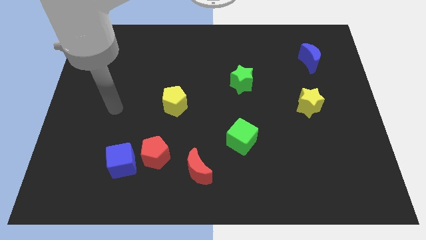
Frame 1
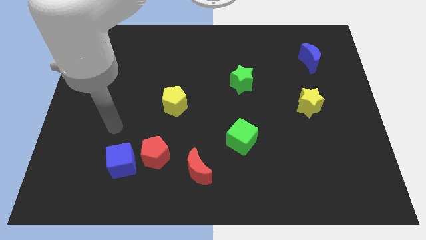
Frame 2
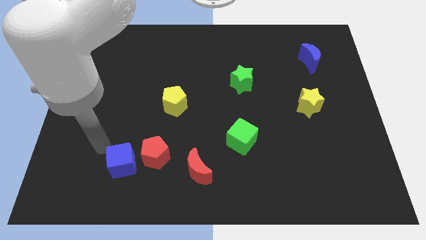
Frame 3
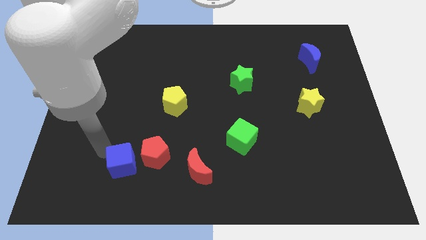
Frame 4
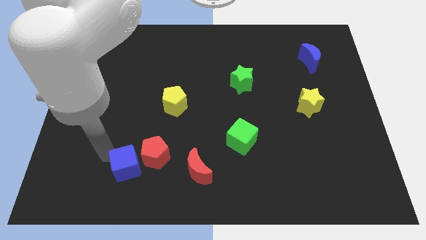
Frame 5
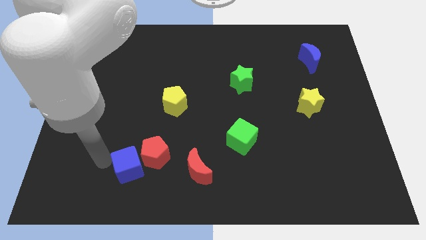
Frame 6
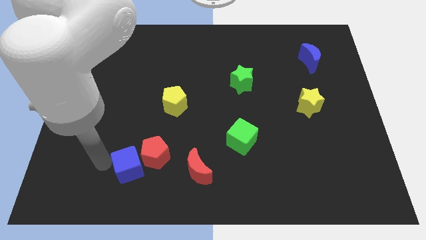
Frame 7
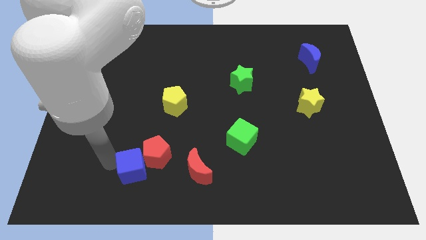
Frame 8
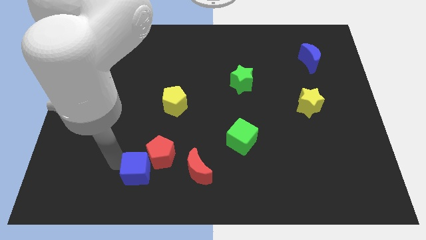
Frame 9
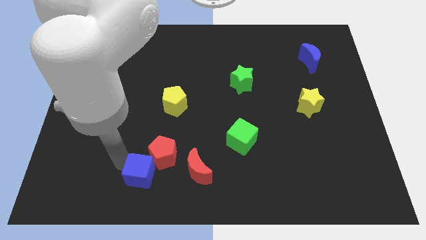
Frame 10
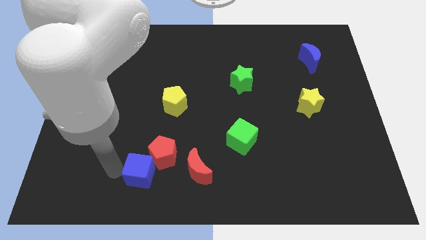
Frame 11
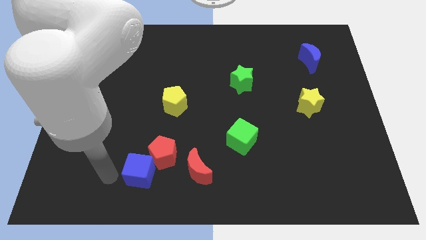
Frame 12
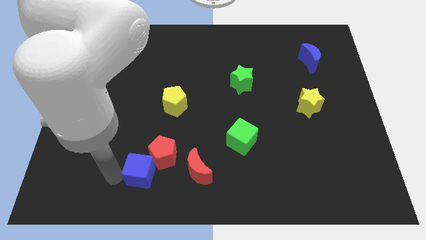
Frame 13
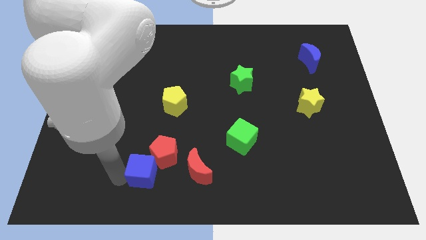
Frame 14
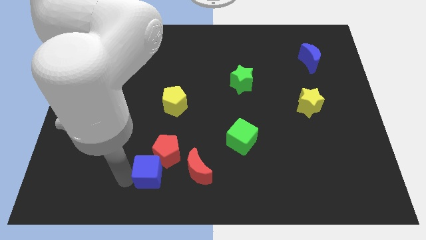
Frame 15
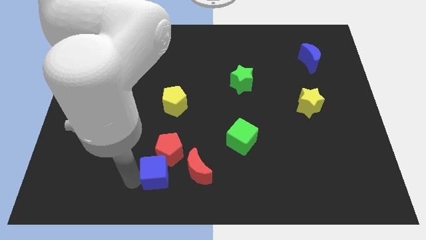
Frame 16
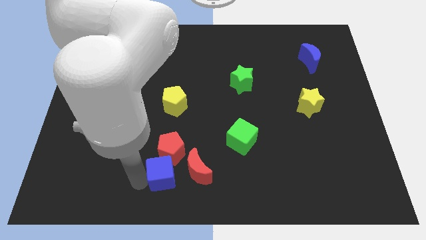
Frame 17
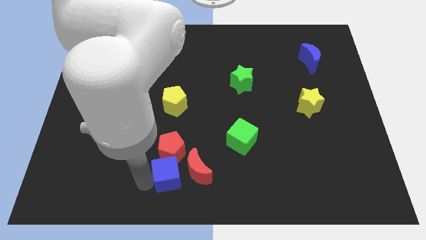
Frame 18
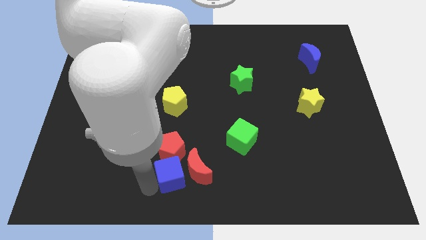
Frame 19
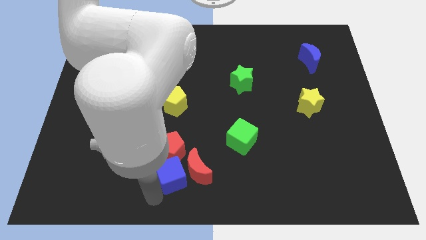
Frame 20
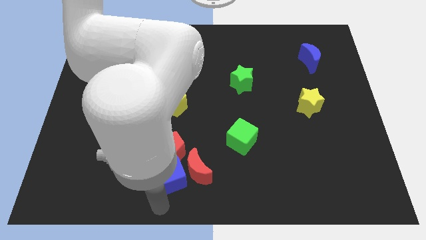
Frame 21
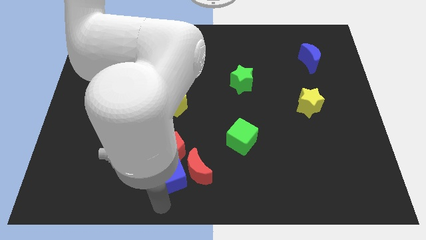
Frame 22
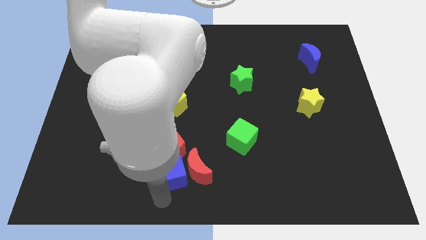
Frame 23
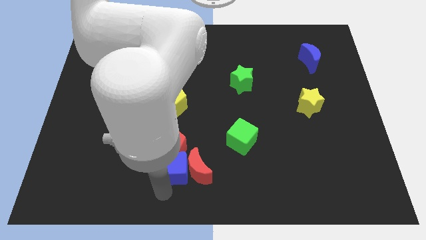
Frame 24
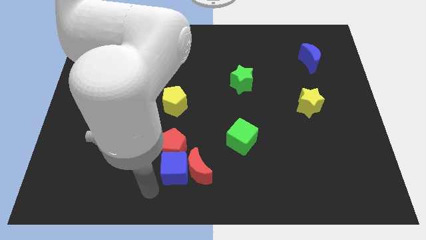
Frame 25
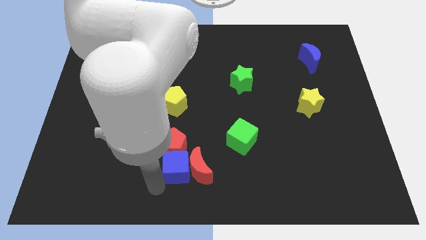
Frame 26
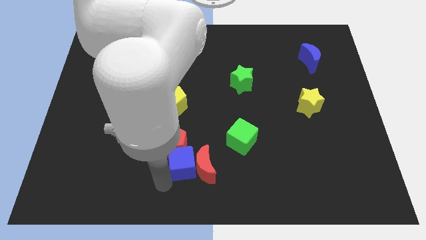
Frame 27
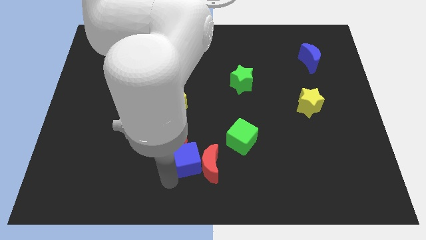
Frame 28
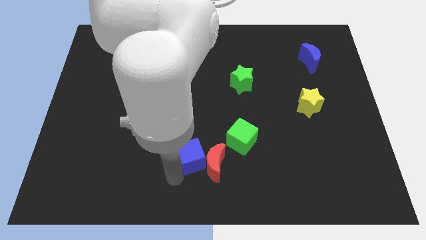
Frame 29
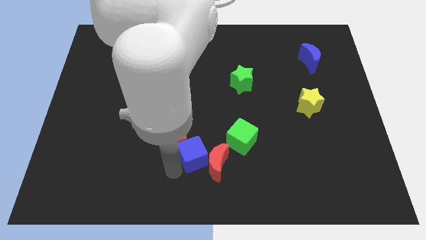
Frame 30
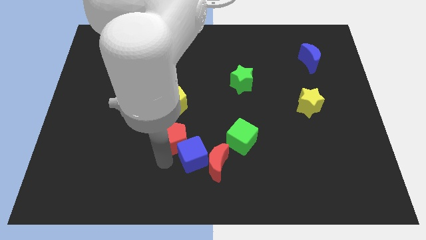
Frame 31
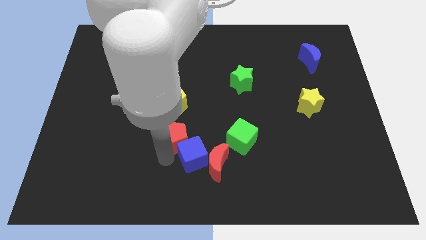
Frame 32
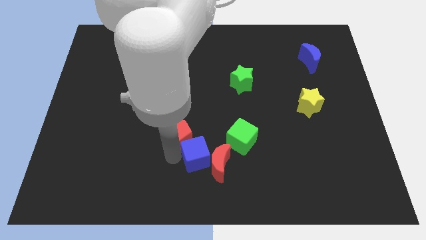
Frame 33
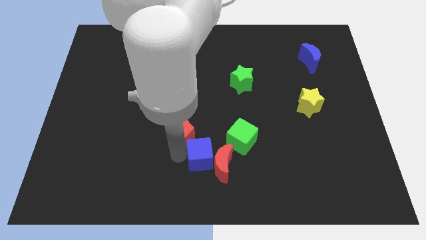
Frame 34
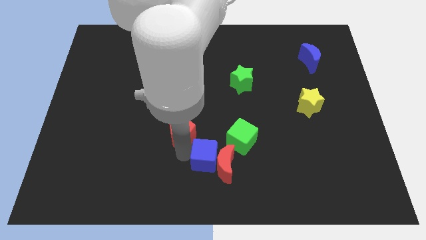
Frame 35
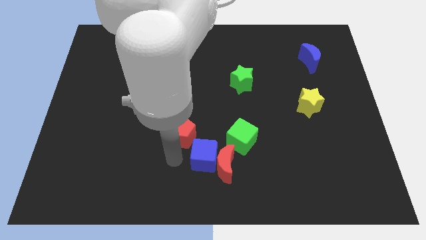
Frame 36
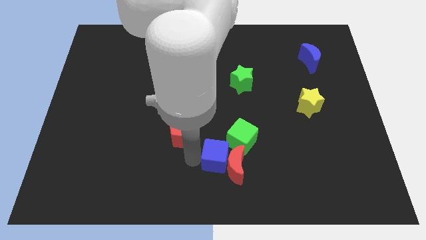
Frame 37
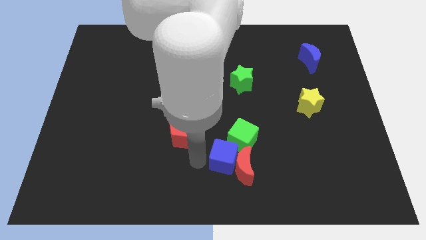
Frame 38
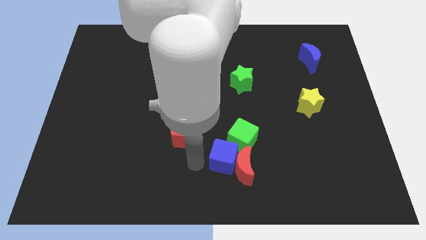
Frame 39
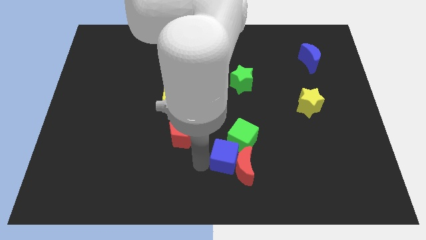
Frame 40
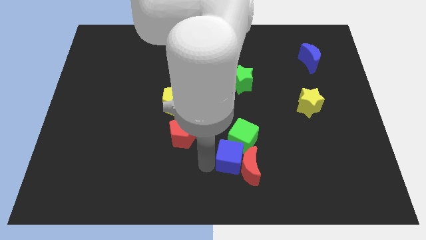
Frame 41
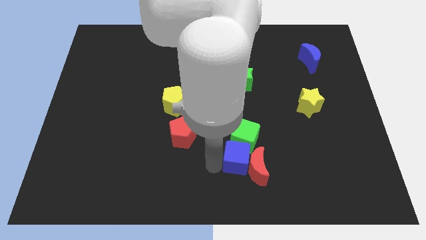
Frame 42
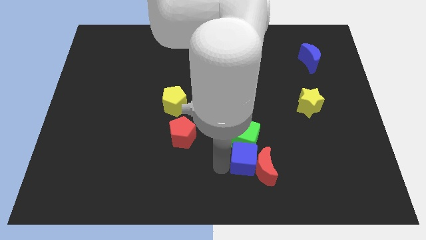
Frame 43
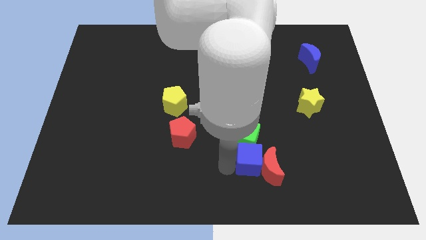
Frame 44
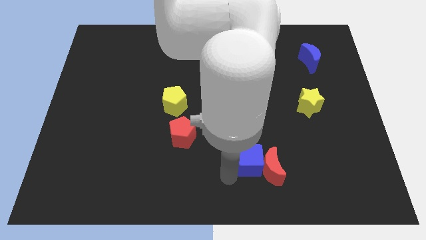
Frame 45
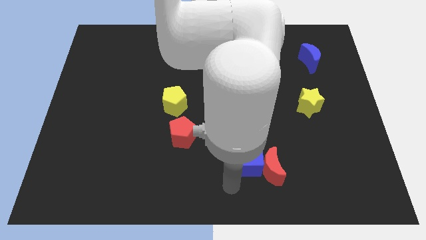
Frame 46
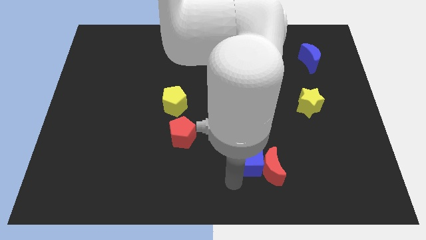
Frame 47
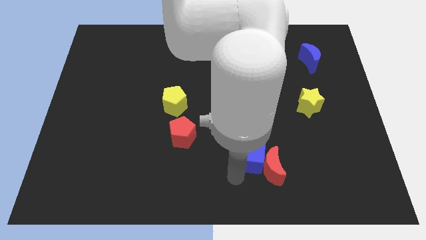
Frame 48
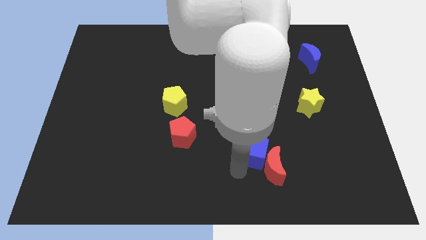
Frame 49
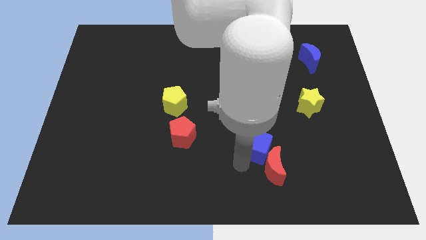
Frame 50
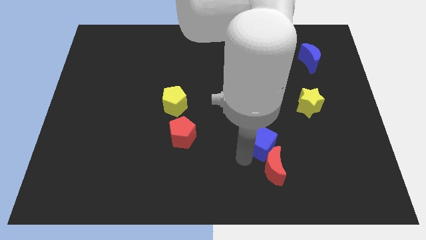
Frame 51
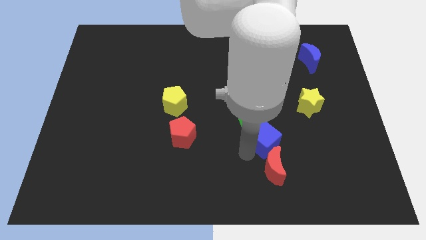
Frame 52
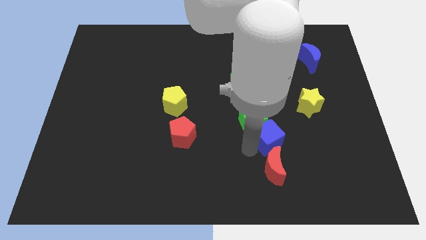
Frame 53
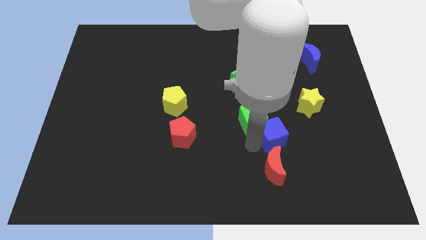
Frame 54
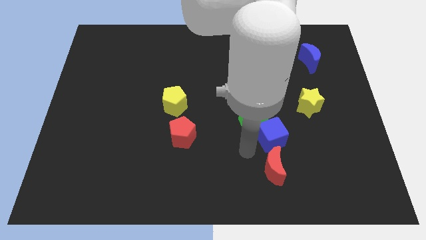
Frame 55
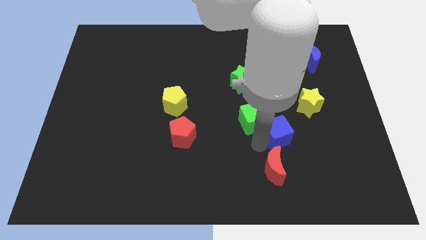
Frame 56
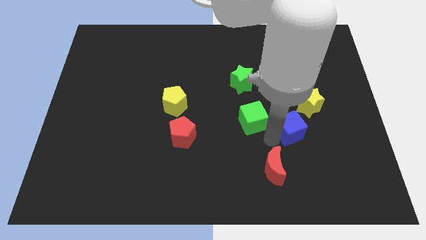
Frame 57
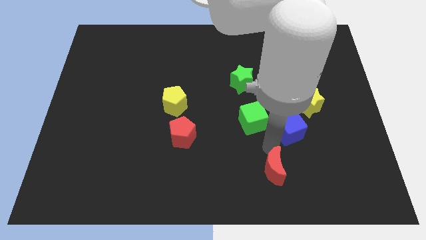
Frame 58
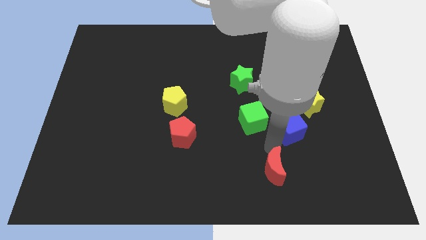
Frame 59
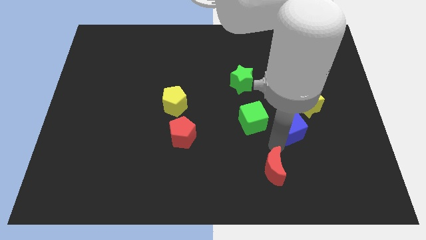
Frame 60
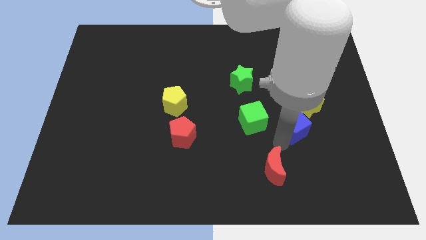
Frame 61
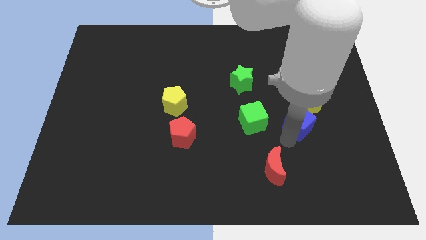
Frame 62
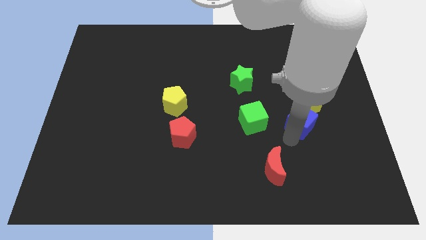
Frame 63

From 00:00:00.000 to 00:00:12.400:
move the blue cube next to the yellow star
